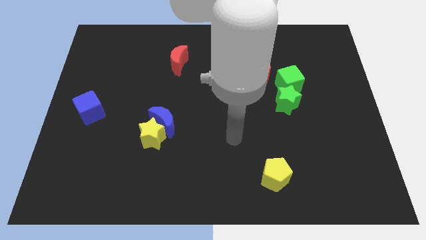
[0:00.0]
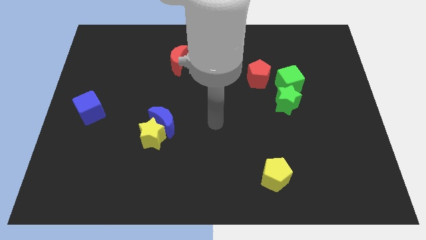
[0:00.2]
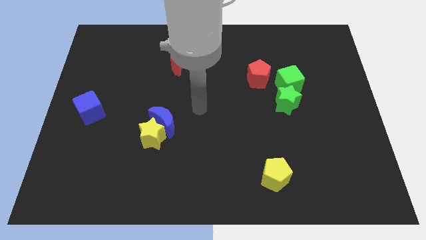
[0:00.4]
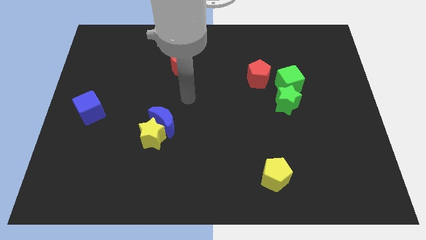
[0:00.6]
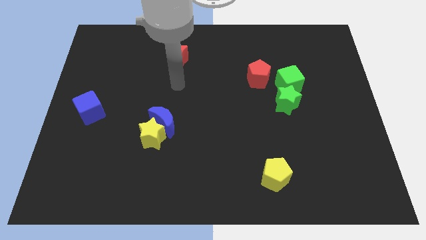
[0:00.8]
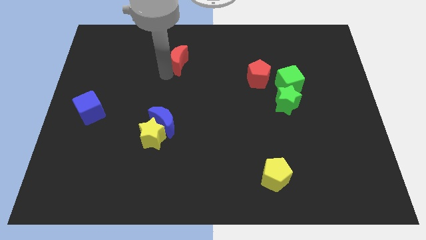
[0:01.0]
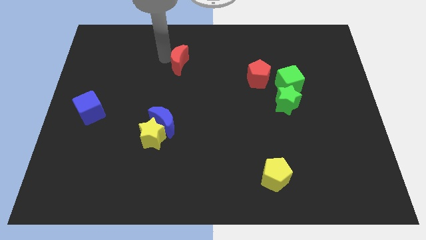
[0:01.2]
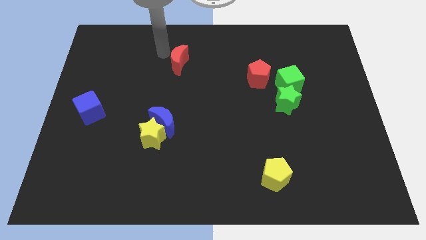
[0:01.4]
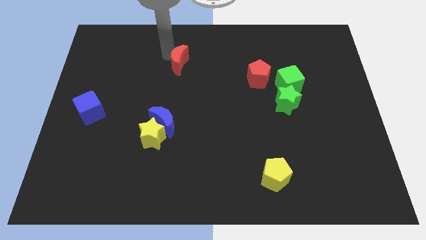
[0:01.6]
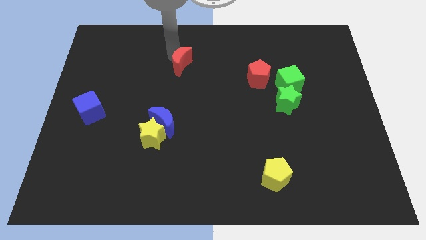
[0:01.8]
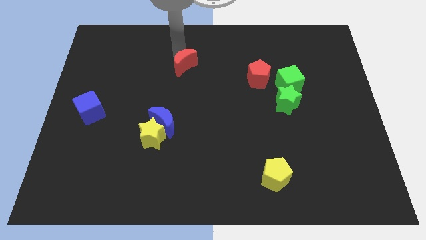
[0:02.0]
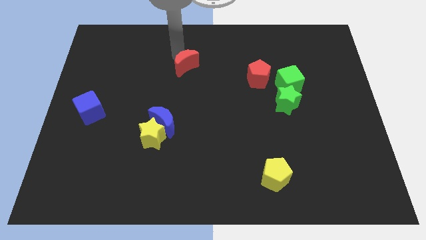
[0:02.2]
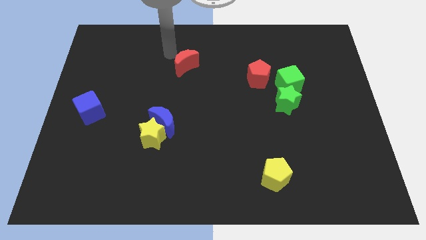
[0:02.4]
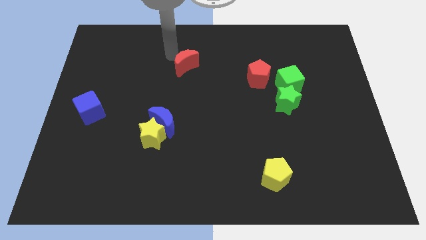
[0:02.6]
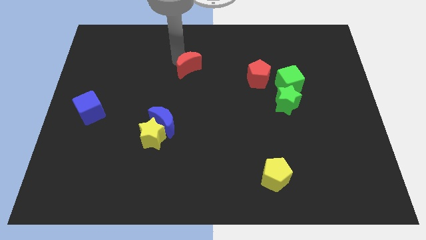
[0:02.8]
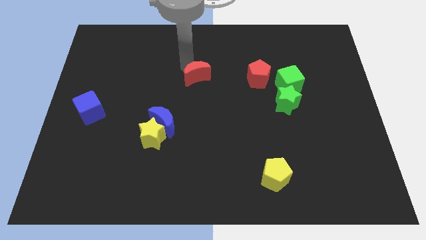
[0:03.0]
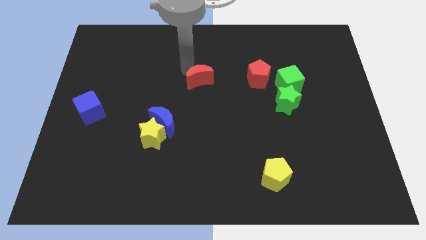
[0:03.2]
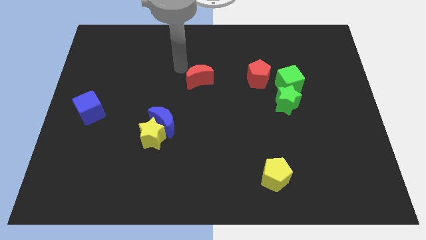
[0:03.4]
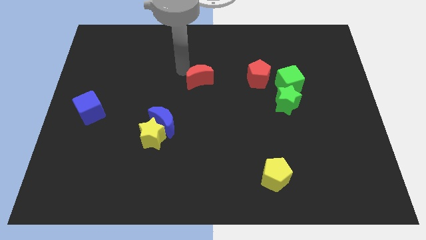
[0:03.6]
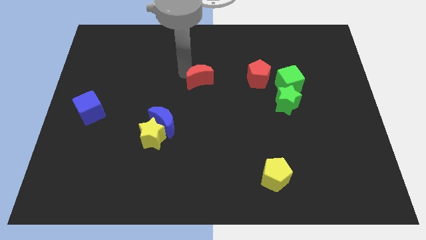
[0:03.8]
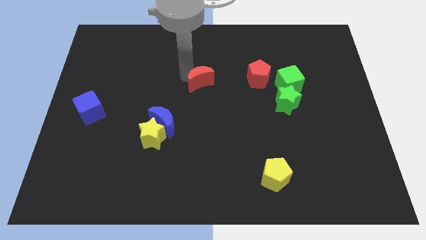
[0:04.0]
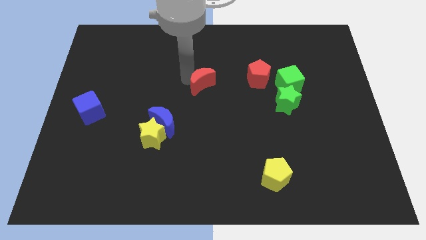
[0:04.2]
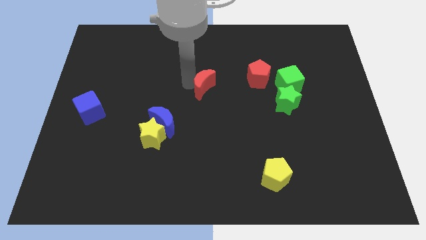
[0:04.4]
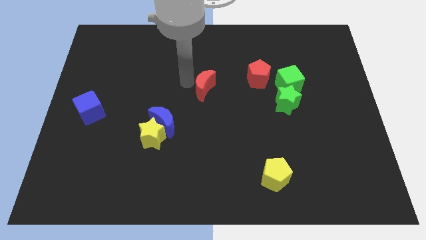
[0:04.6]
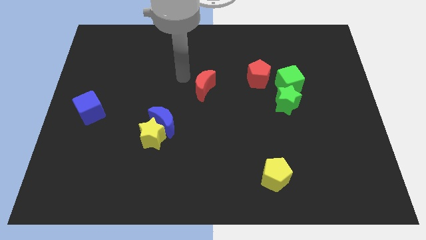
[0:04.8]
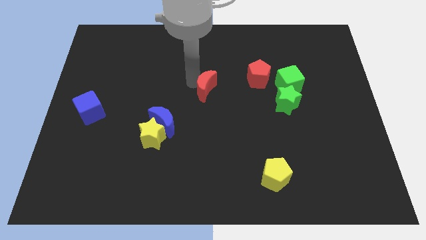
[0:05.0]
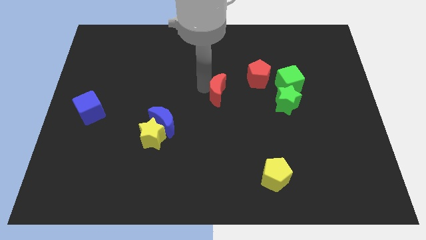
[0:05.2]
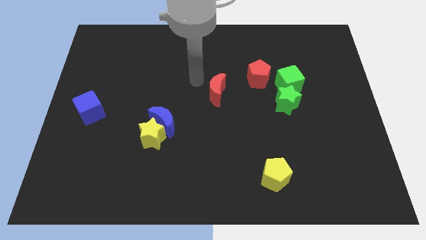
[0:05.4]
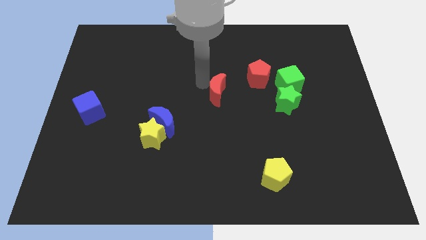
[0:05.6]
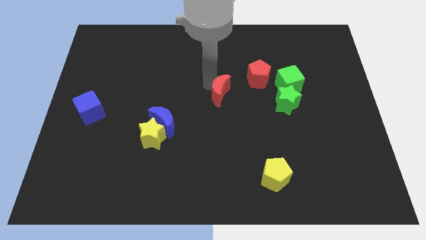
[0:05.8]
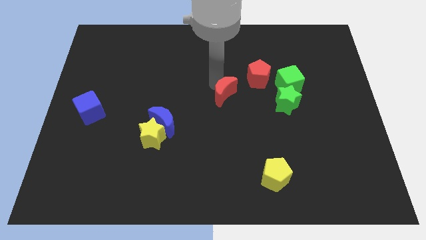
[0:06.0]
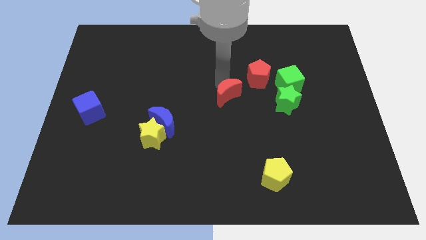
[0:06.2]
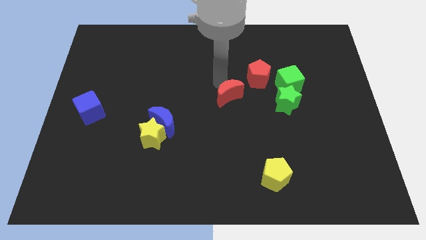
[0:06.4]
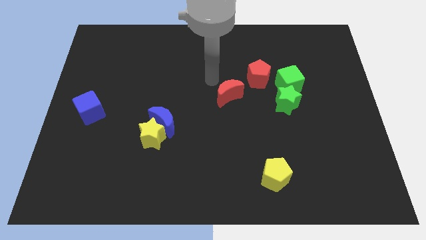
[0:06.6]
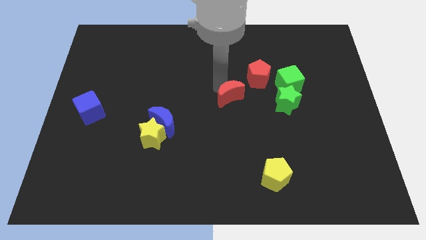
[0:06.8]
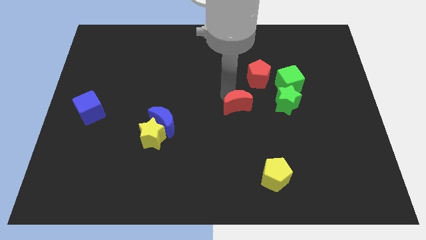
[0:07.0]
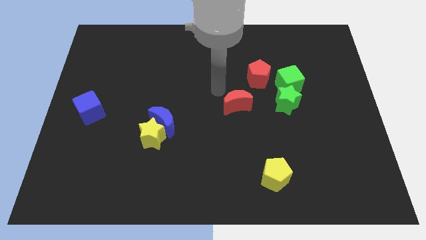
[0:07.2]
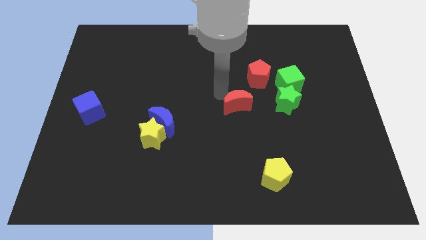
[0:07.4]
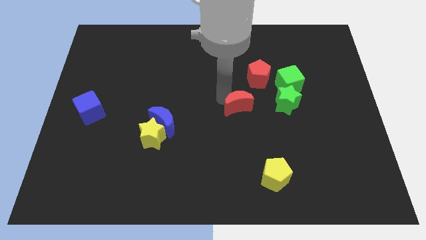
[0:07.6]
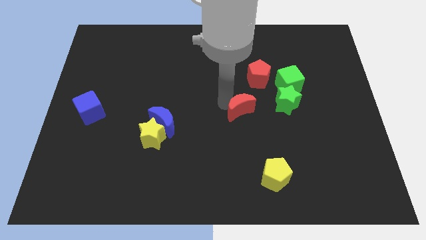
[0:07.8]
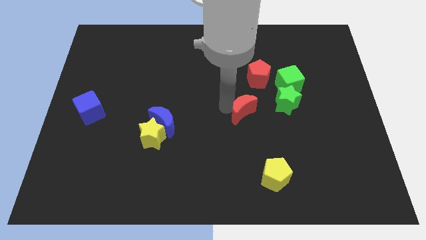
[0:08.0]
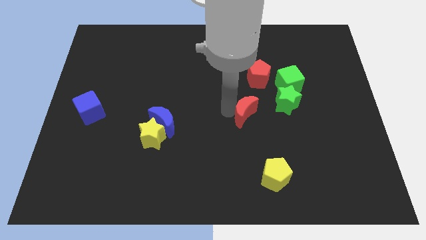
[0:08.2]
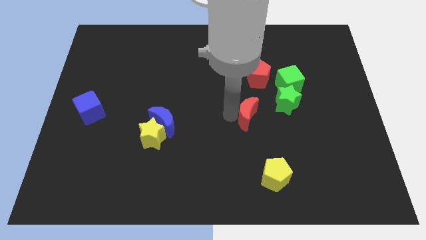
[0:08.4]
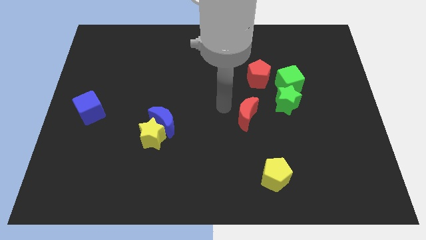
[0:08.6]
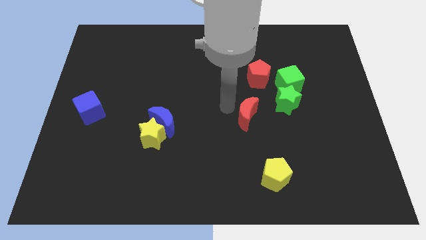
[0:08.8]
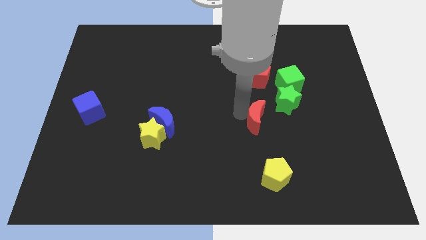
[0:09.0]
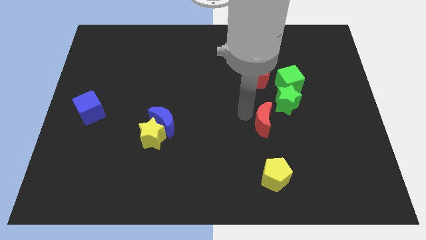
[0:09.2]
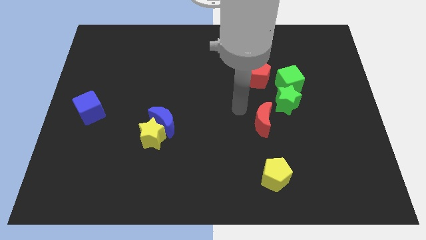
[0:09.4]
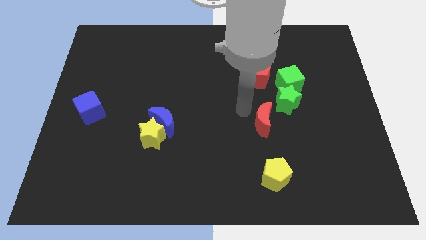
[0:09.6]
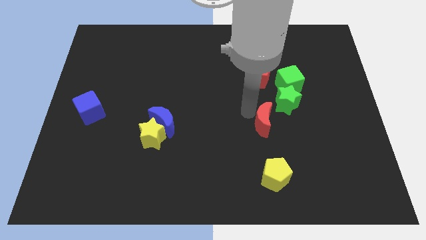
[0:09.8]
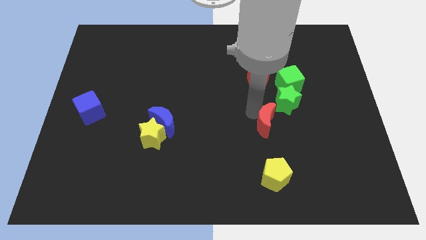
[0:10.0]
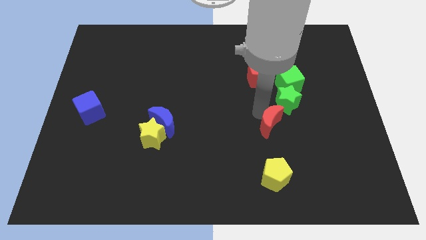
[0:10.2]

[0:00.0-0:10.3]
slide the red moon to the bottom side of the green star

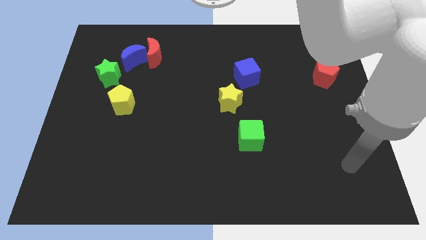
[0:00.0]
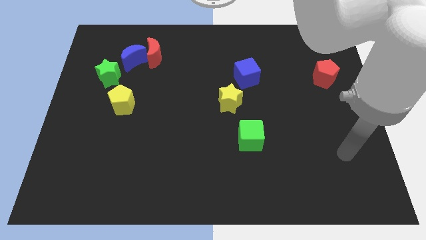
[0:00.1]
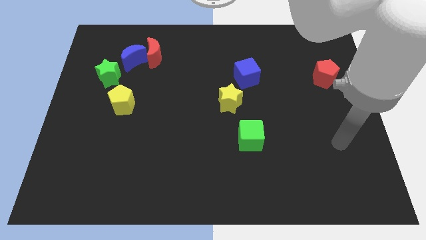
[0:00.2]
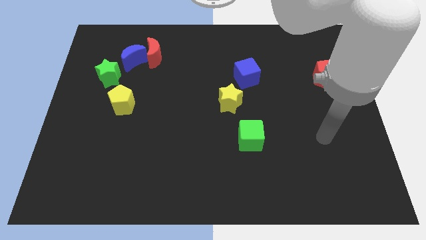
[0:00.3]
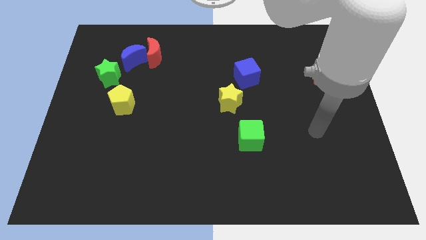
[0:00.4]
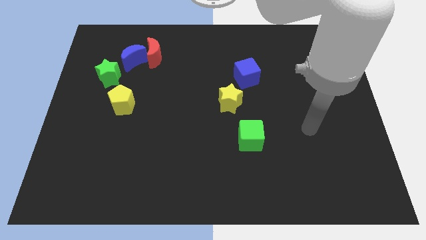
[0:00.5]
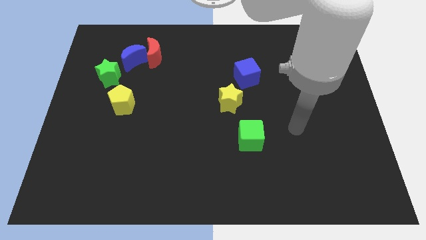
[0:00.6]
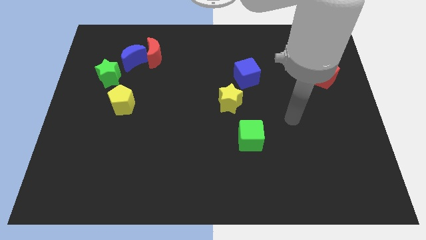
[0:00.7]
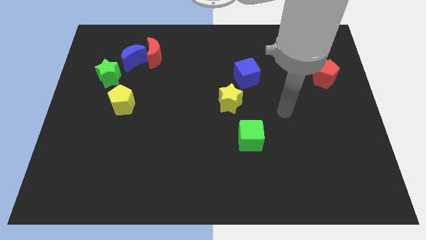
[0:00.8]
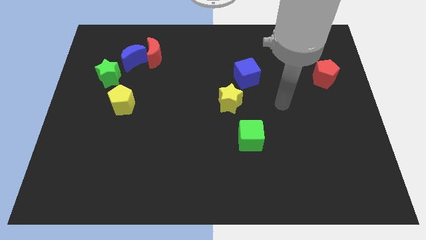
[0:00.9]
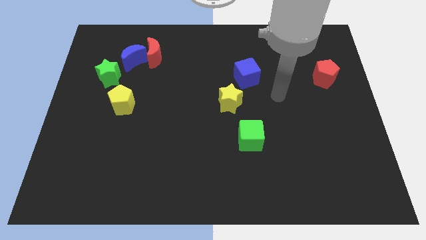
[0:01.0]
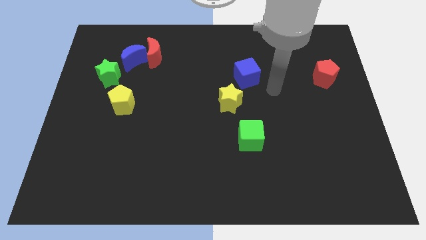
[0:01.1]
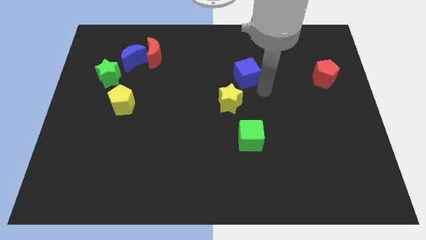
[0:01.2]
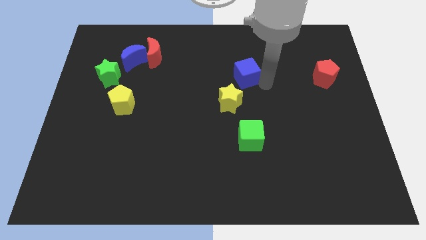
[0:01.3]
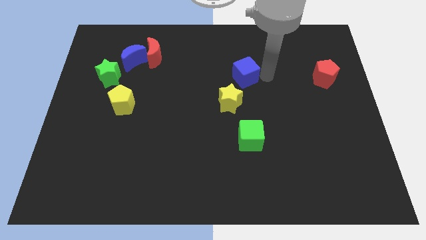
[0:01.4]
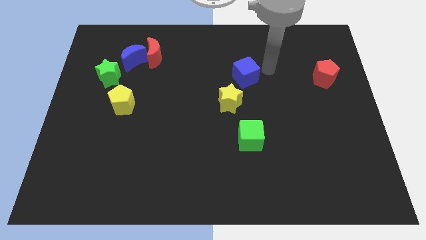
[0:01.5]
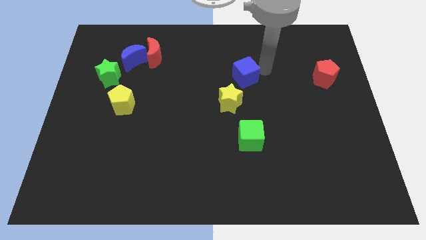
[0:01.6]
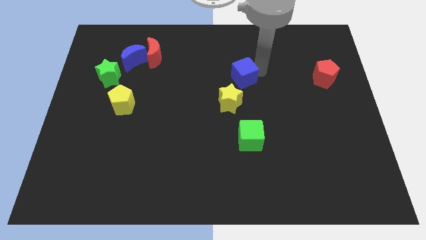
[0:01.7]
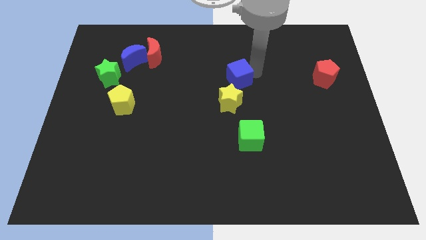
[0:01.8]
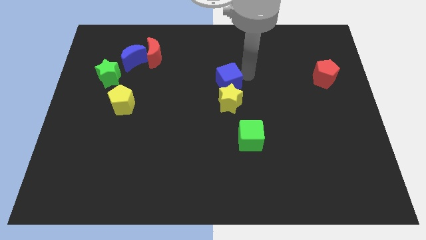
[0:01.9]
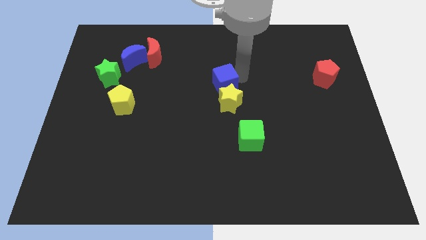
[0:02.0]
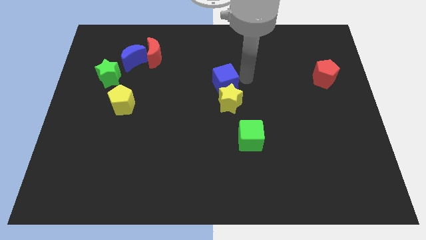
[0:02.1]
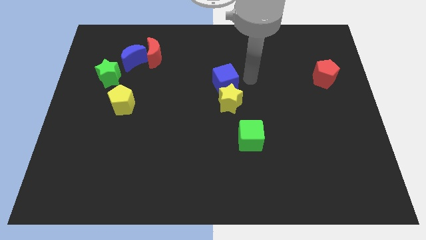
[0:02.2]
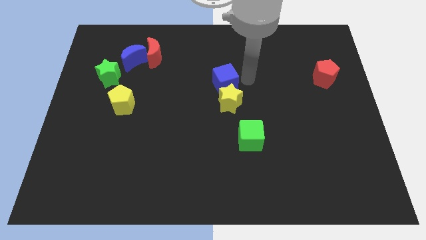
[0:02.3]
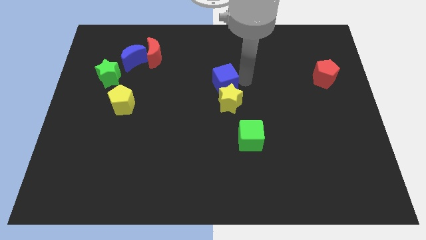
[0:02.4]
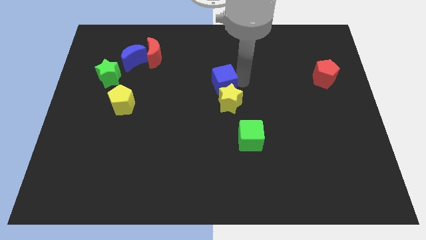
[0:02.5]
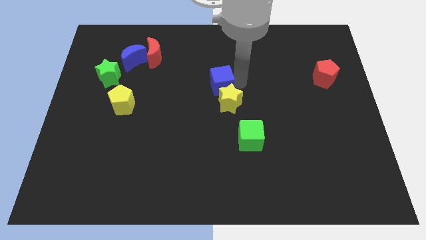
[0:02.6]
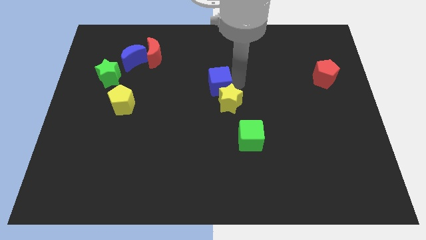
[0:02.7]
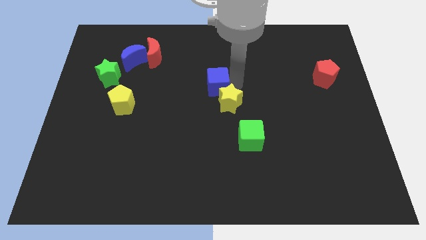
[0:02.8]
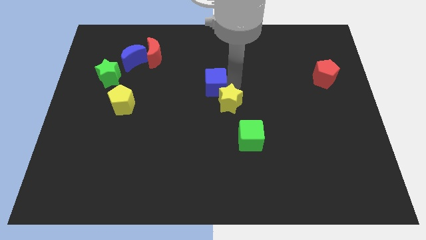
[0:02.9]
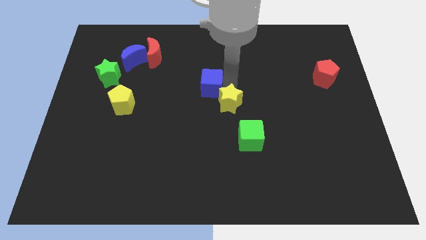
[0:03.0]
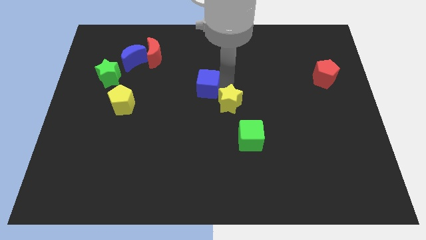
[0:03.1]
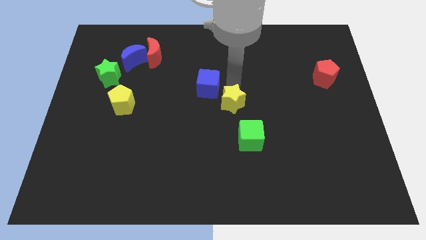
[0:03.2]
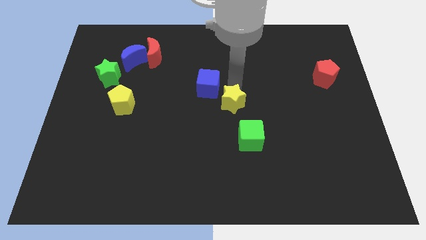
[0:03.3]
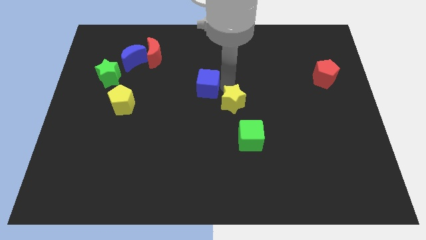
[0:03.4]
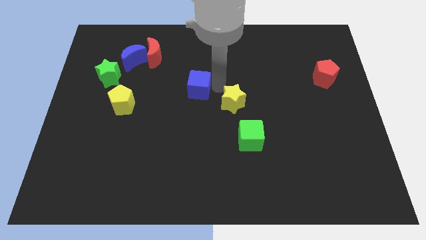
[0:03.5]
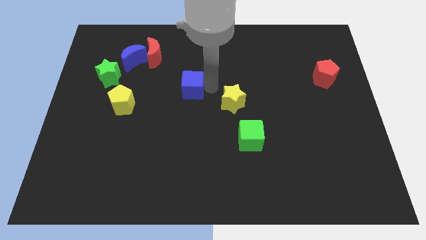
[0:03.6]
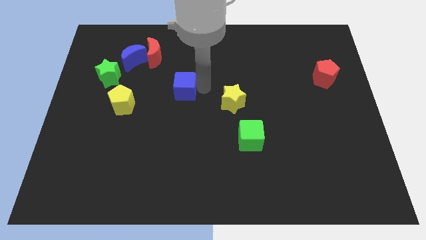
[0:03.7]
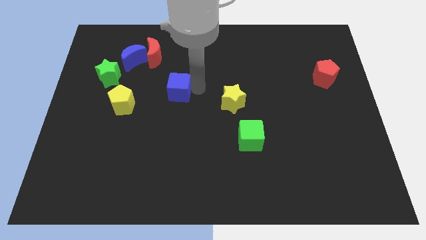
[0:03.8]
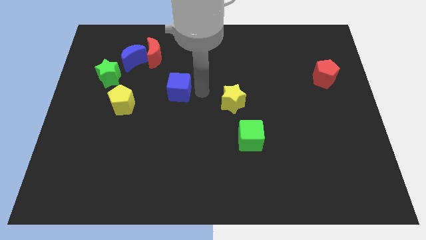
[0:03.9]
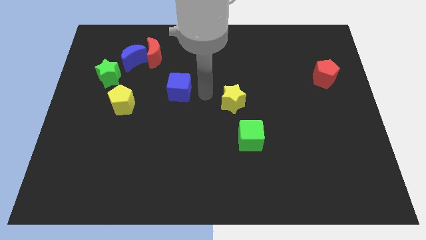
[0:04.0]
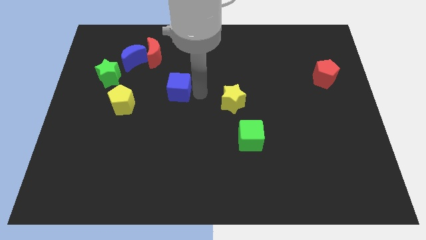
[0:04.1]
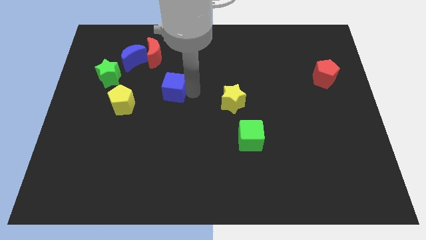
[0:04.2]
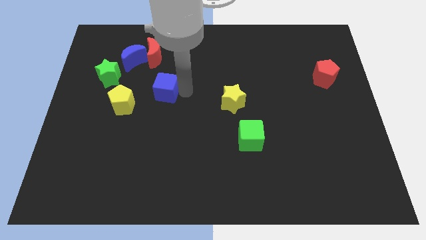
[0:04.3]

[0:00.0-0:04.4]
move the blue cube to the bottom of the red moon
